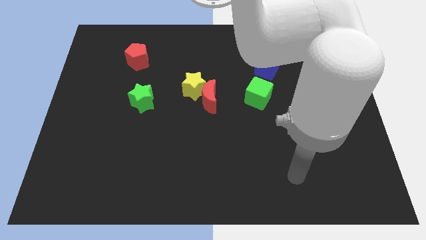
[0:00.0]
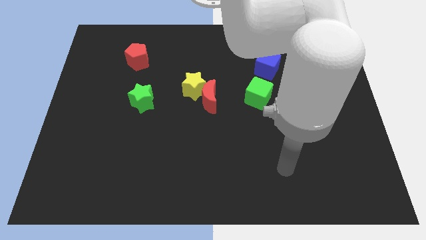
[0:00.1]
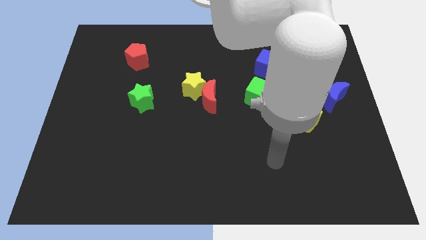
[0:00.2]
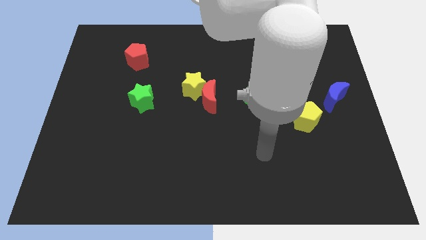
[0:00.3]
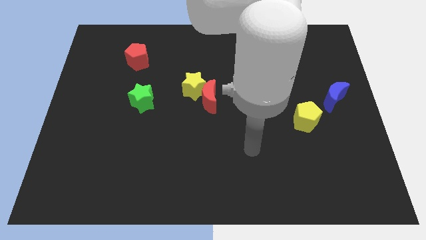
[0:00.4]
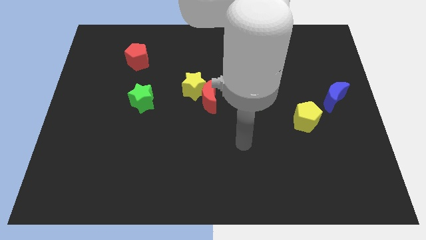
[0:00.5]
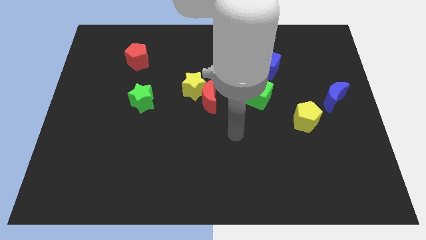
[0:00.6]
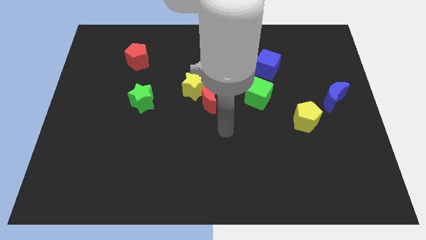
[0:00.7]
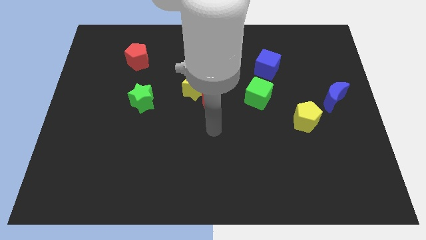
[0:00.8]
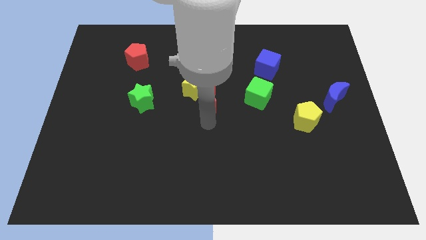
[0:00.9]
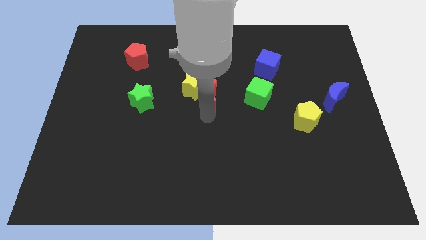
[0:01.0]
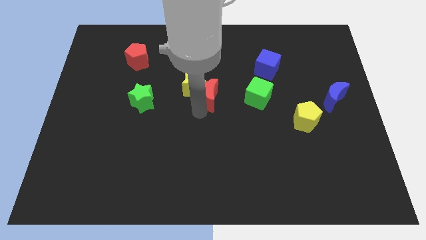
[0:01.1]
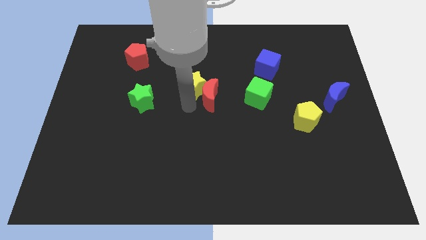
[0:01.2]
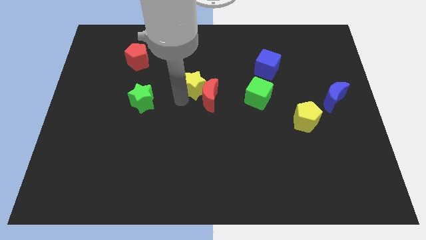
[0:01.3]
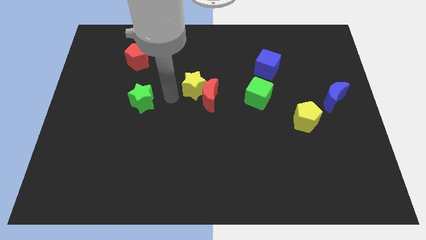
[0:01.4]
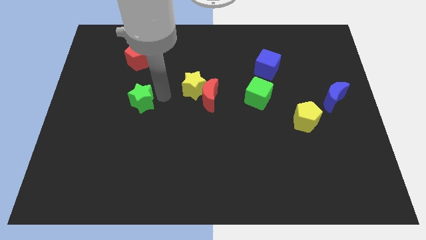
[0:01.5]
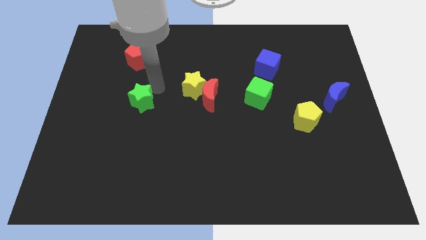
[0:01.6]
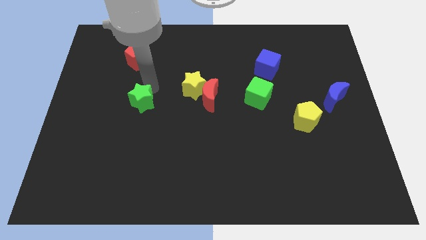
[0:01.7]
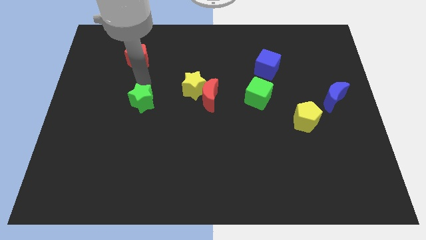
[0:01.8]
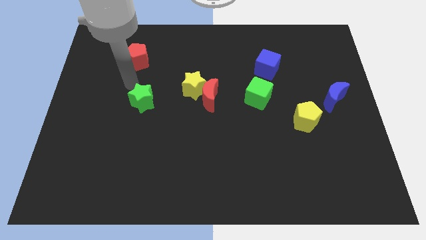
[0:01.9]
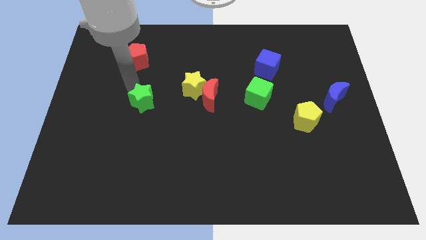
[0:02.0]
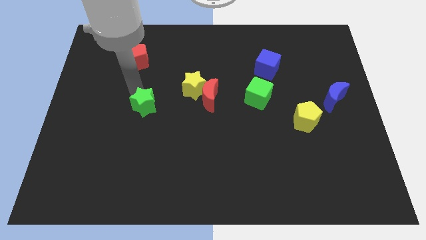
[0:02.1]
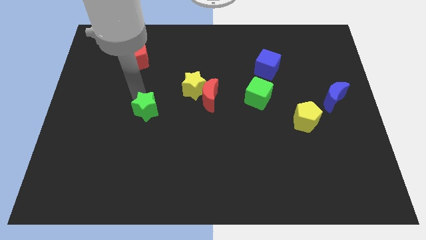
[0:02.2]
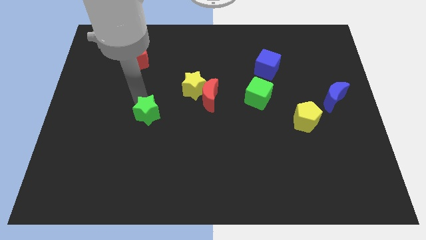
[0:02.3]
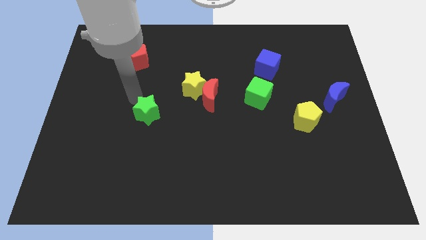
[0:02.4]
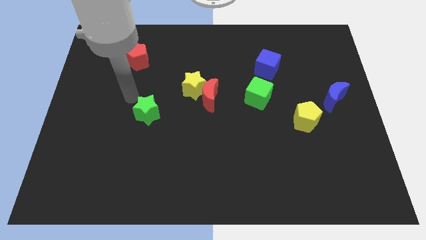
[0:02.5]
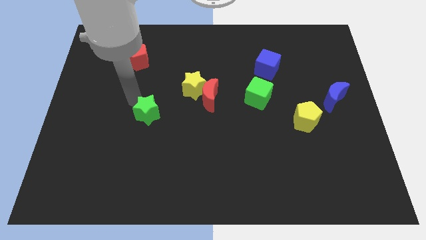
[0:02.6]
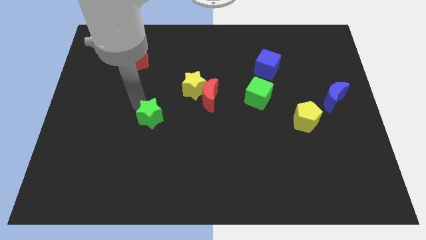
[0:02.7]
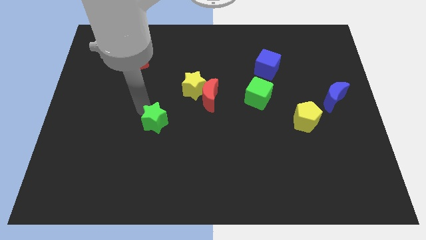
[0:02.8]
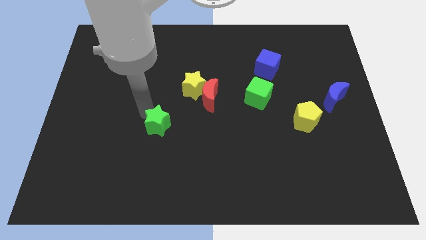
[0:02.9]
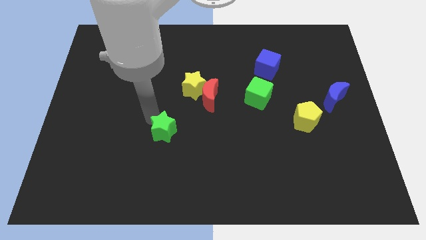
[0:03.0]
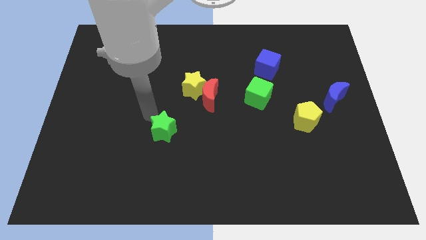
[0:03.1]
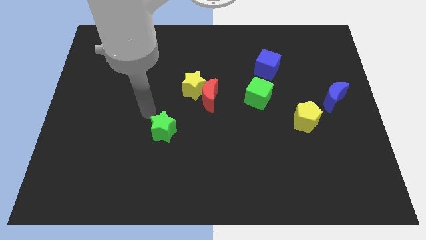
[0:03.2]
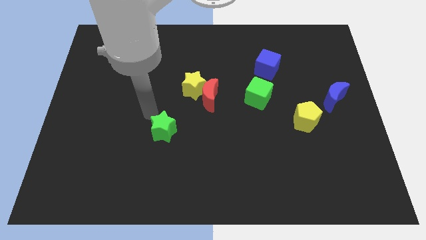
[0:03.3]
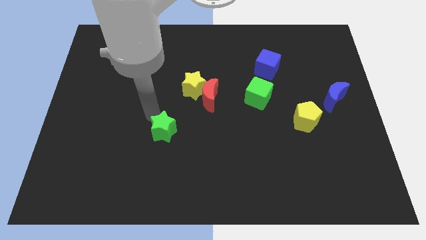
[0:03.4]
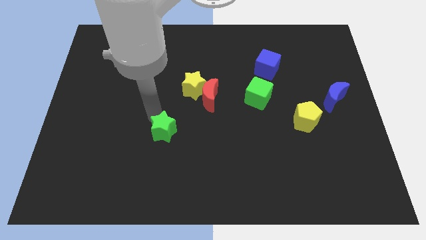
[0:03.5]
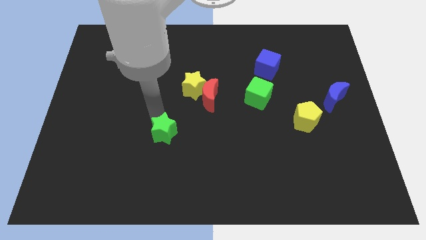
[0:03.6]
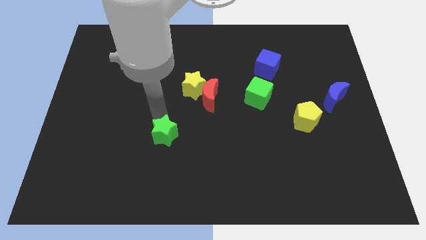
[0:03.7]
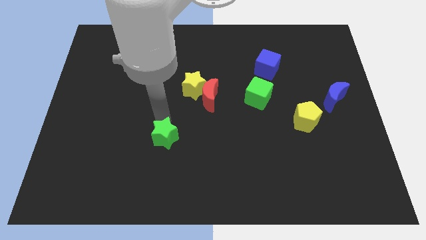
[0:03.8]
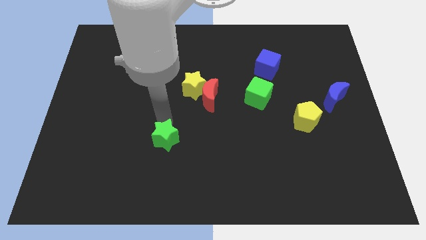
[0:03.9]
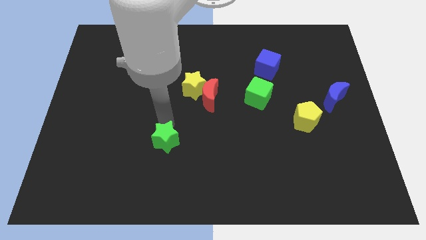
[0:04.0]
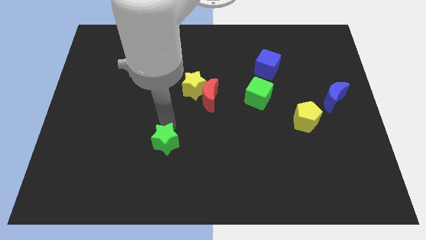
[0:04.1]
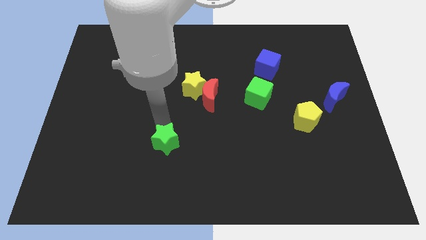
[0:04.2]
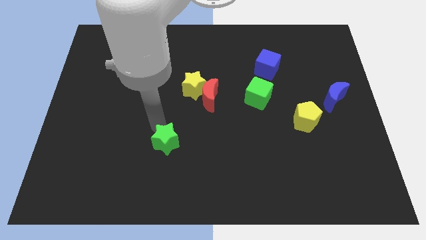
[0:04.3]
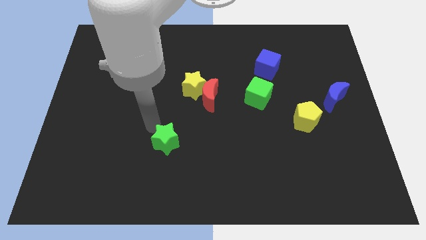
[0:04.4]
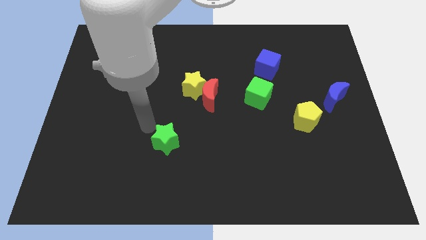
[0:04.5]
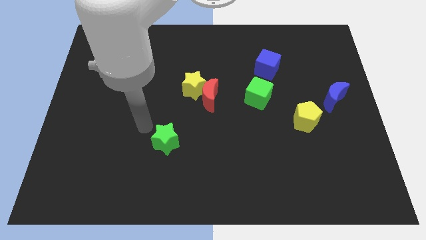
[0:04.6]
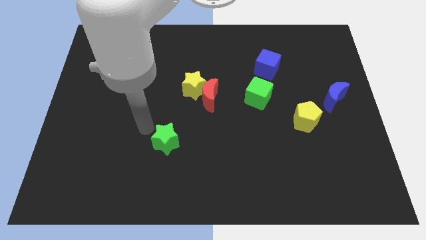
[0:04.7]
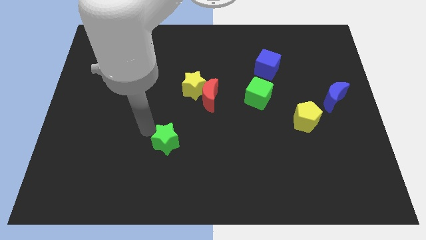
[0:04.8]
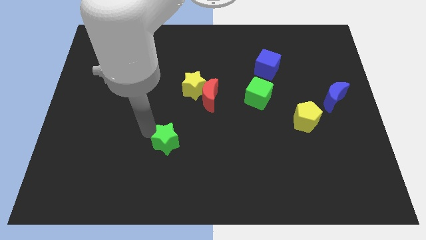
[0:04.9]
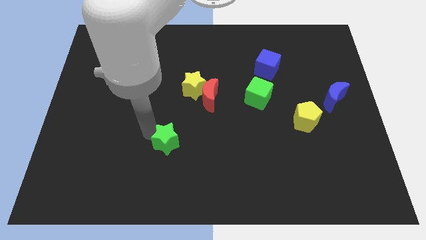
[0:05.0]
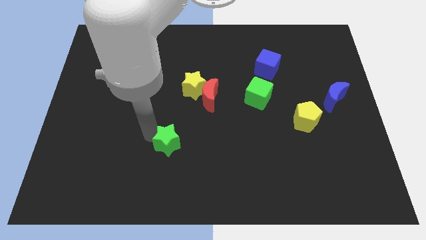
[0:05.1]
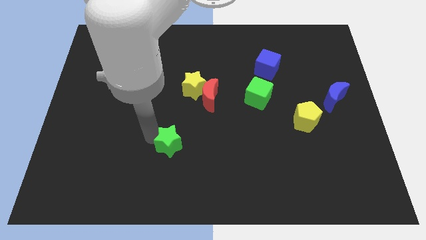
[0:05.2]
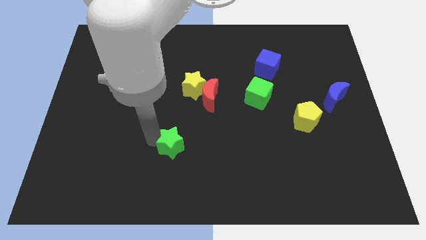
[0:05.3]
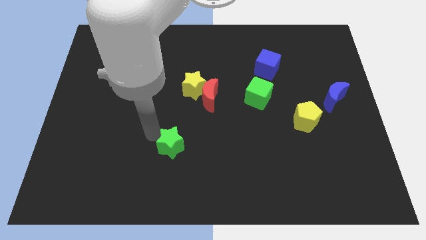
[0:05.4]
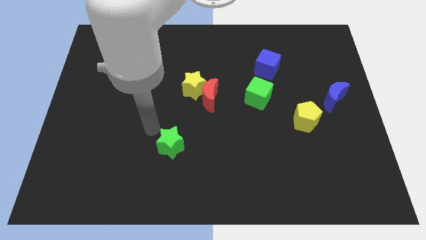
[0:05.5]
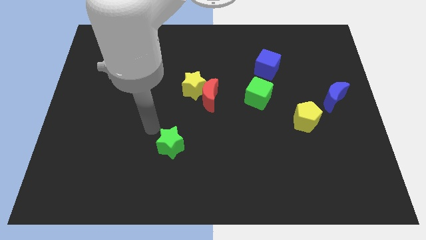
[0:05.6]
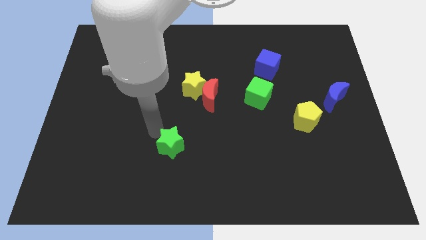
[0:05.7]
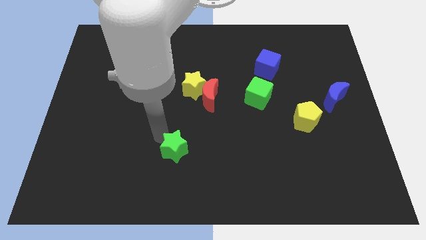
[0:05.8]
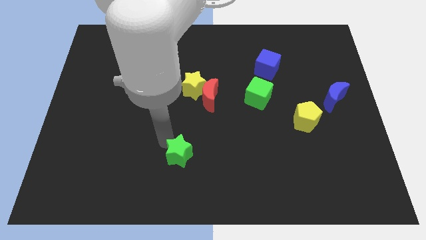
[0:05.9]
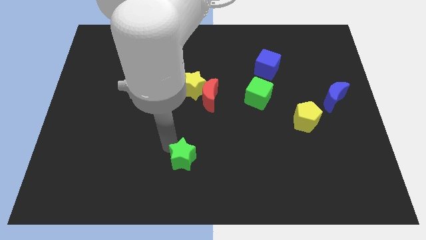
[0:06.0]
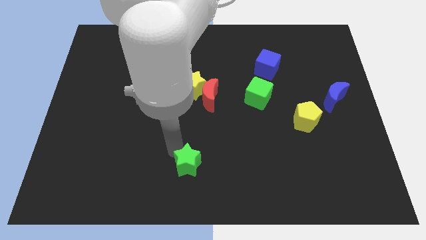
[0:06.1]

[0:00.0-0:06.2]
slide the green star to the bottom side
